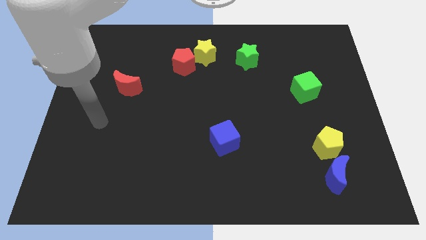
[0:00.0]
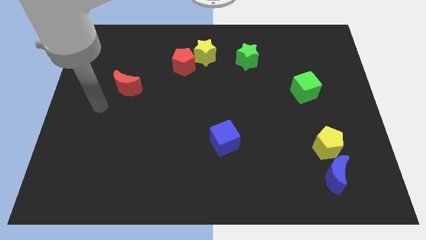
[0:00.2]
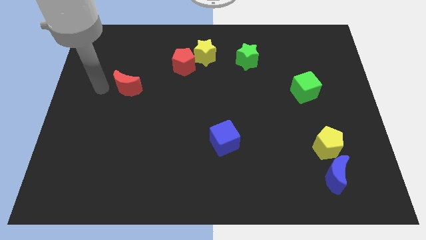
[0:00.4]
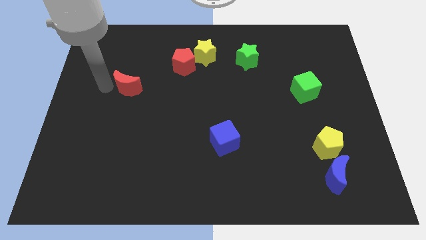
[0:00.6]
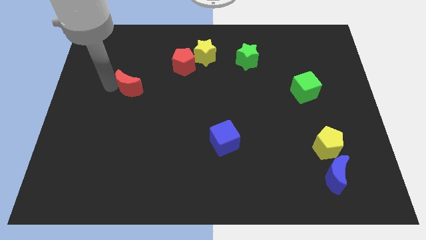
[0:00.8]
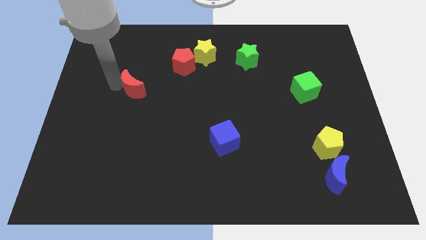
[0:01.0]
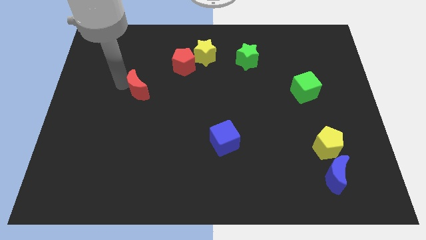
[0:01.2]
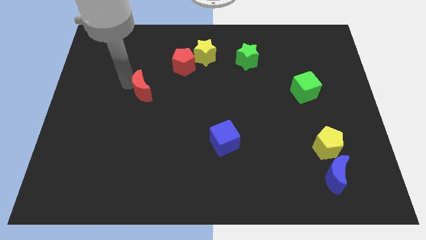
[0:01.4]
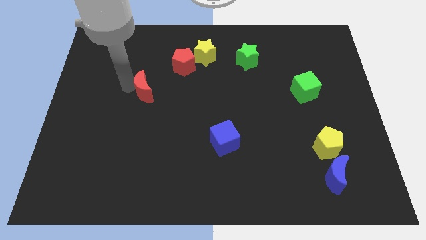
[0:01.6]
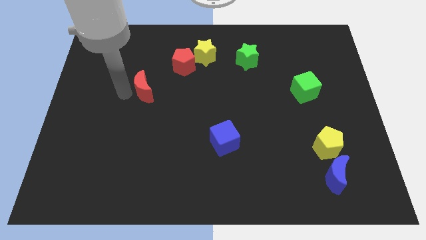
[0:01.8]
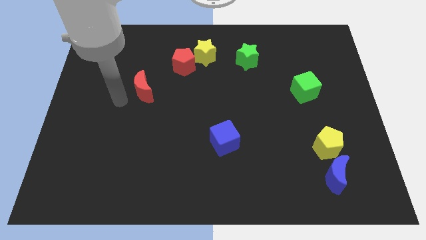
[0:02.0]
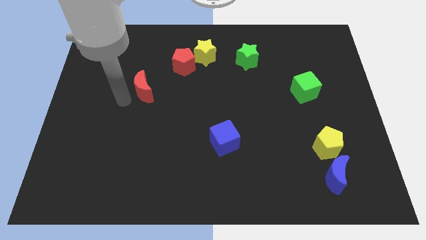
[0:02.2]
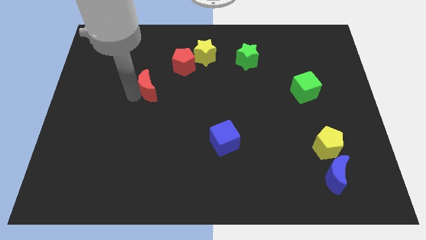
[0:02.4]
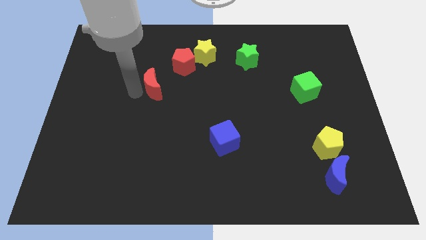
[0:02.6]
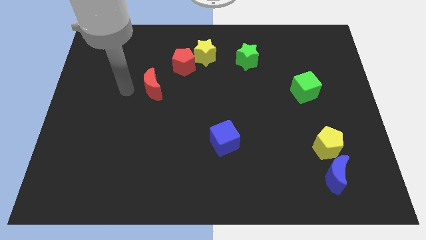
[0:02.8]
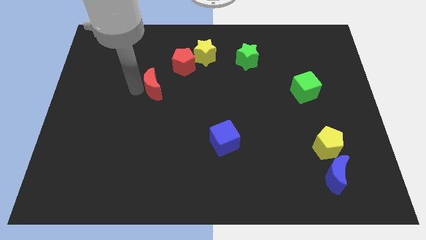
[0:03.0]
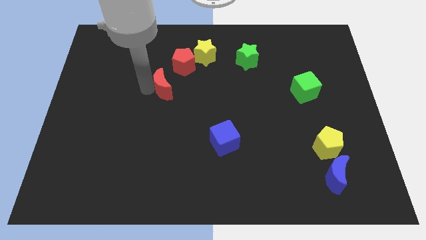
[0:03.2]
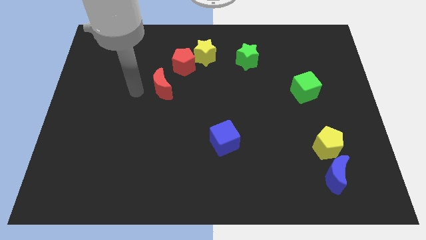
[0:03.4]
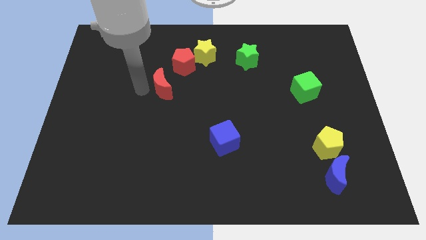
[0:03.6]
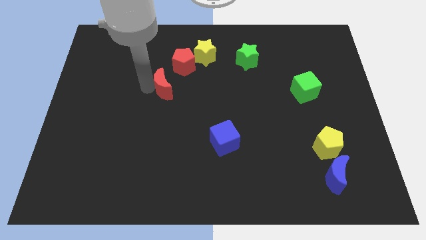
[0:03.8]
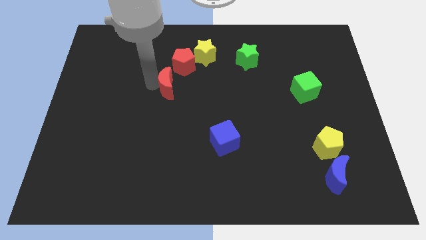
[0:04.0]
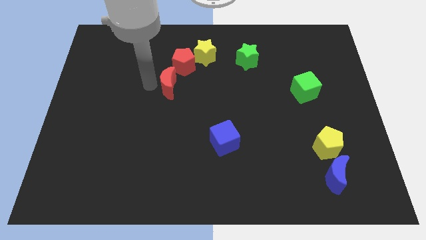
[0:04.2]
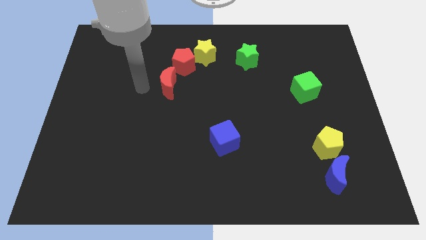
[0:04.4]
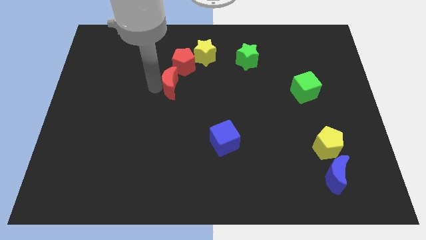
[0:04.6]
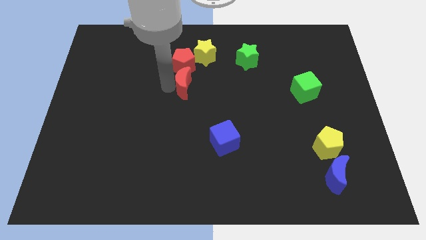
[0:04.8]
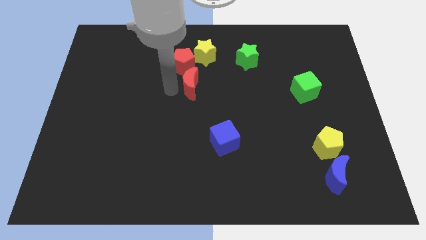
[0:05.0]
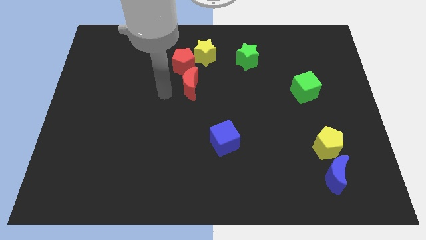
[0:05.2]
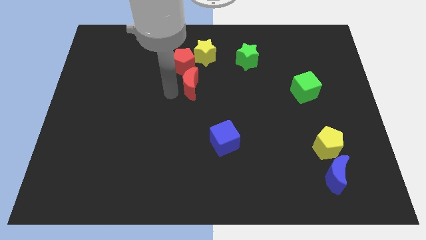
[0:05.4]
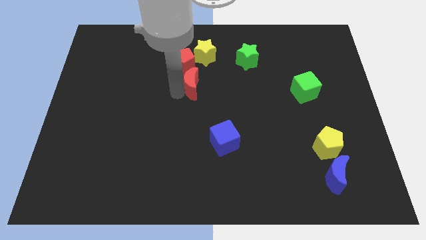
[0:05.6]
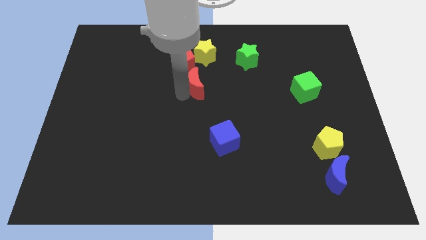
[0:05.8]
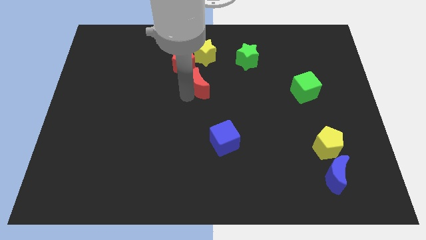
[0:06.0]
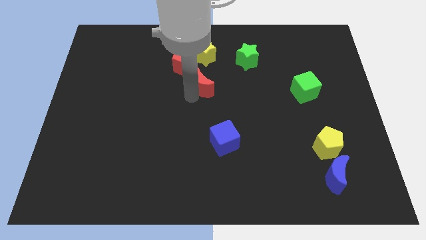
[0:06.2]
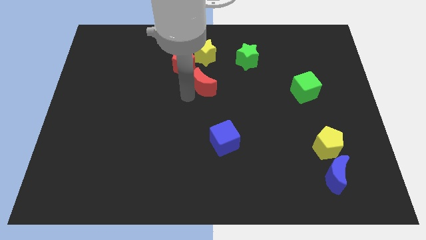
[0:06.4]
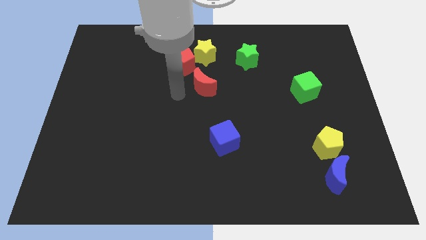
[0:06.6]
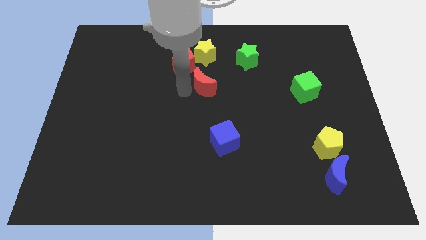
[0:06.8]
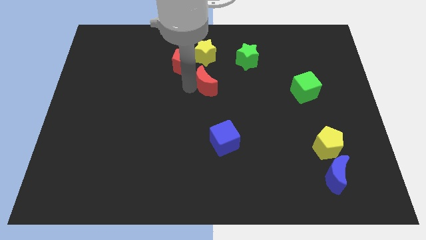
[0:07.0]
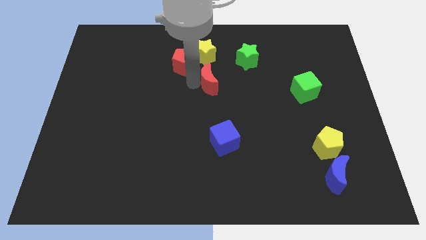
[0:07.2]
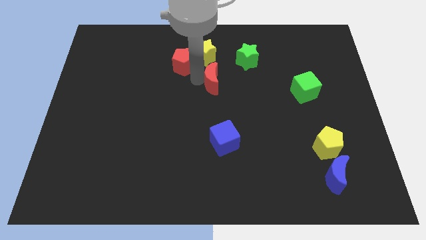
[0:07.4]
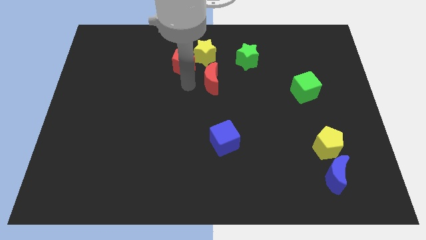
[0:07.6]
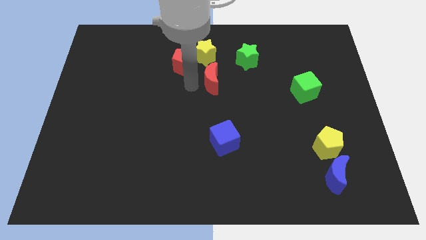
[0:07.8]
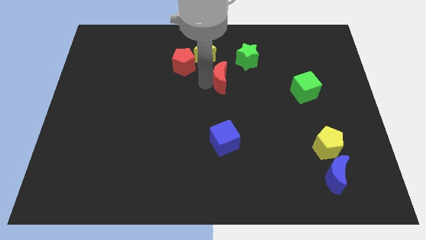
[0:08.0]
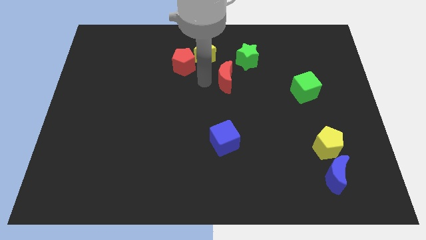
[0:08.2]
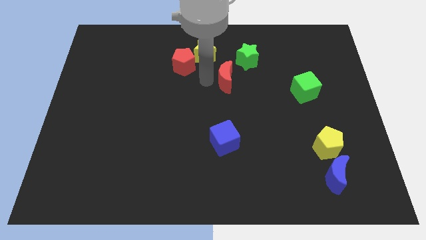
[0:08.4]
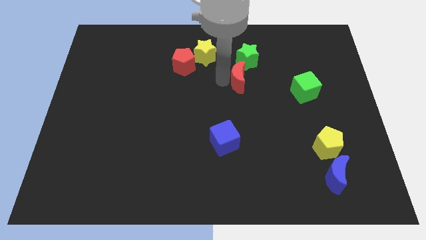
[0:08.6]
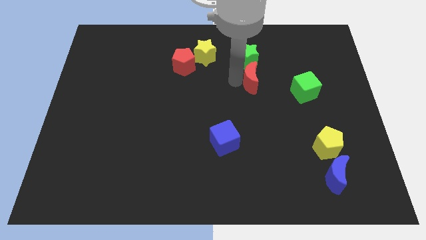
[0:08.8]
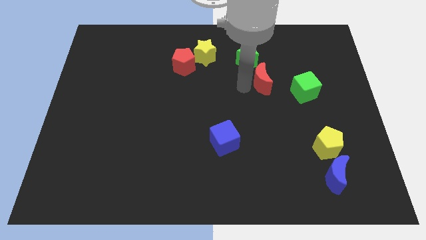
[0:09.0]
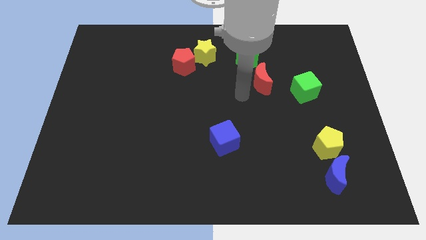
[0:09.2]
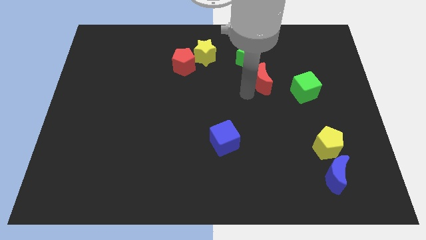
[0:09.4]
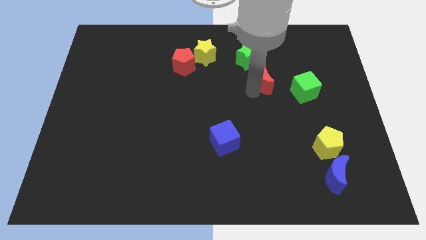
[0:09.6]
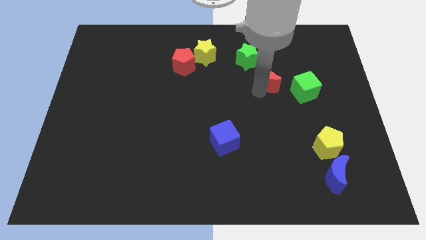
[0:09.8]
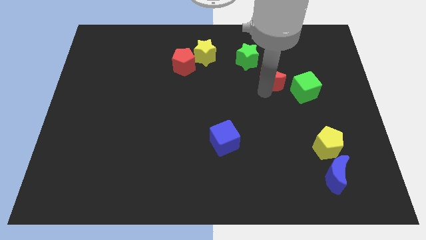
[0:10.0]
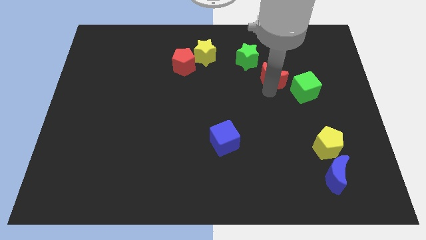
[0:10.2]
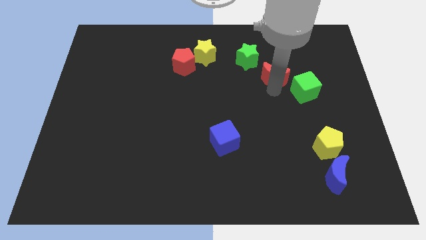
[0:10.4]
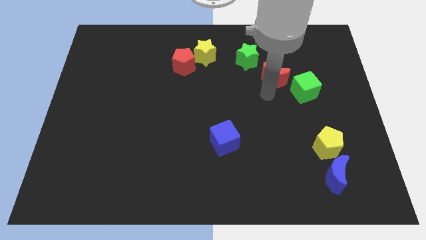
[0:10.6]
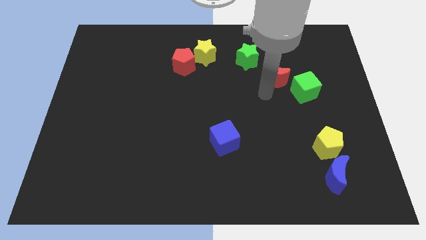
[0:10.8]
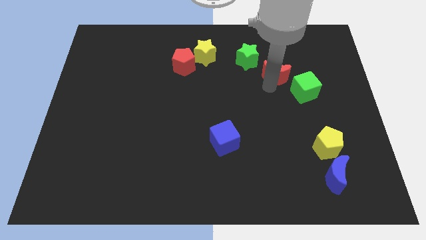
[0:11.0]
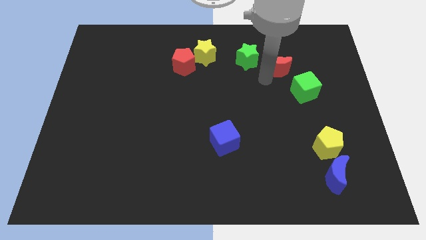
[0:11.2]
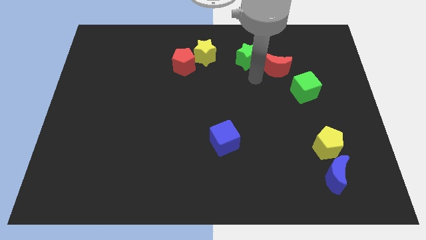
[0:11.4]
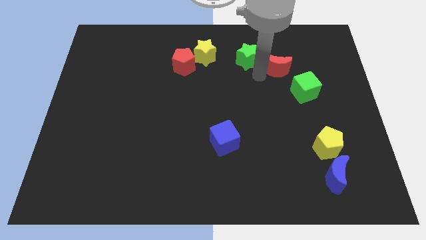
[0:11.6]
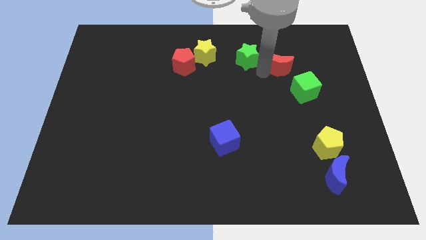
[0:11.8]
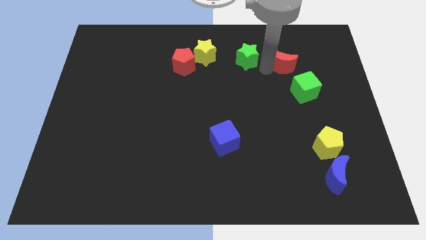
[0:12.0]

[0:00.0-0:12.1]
slide the red moon to the top side of the green cube

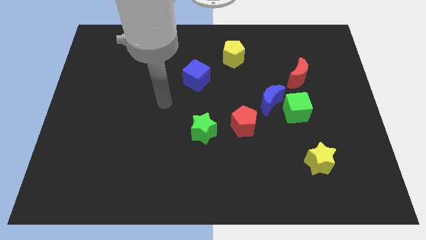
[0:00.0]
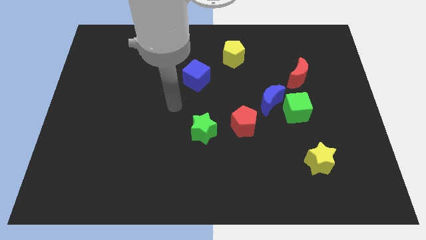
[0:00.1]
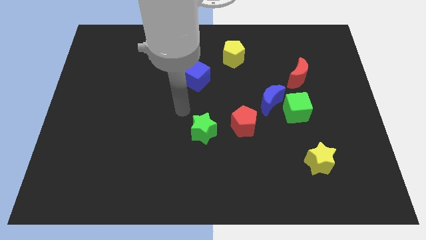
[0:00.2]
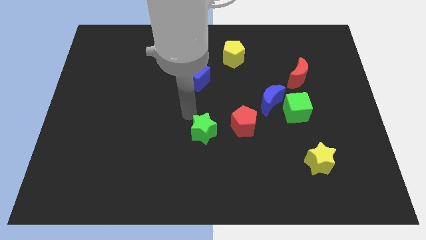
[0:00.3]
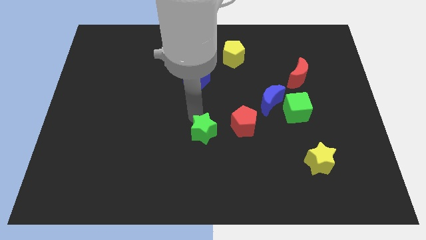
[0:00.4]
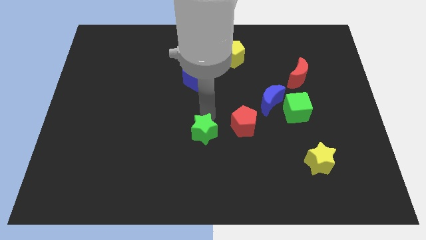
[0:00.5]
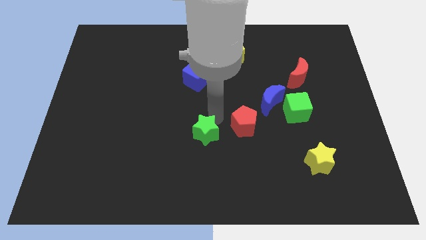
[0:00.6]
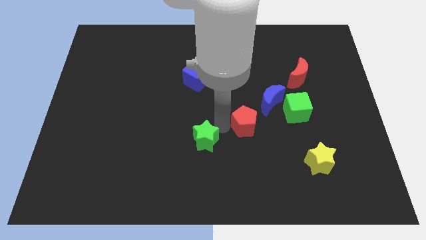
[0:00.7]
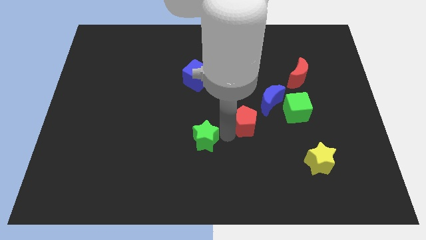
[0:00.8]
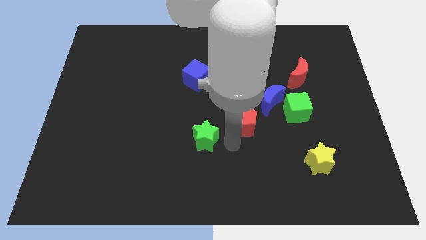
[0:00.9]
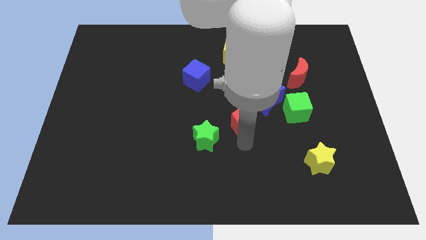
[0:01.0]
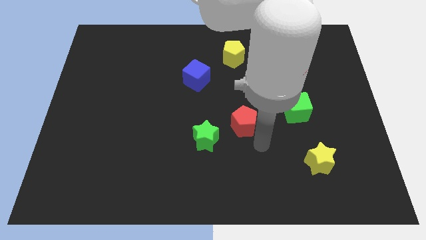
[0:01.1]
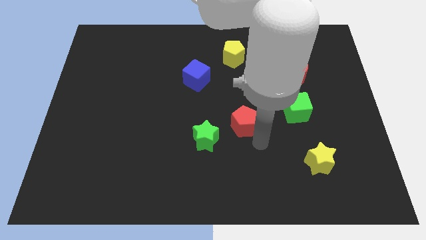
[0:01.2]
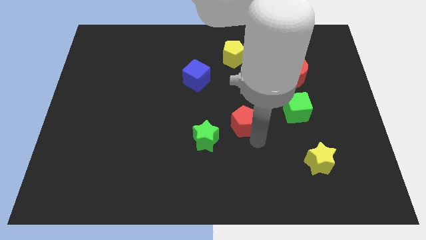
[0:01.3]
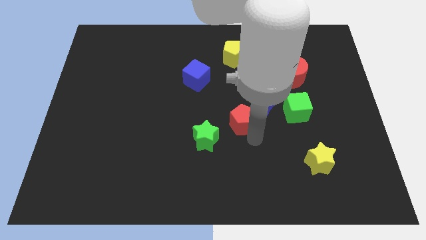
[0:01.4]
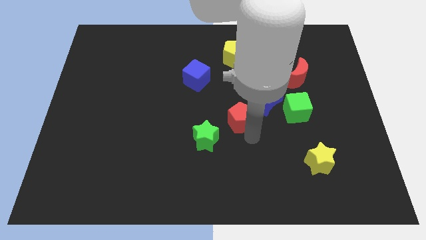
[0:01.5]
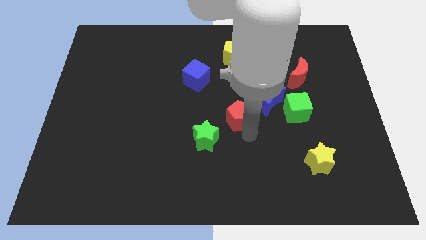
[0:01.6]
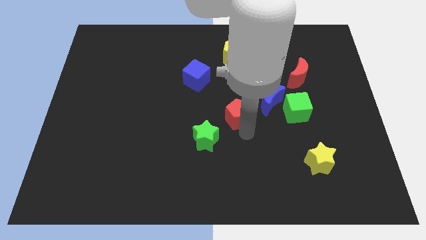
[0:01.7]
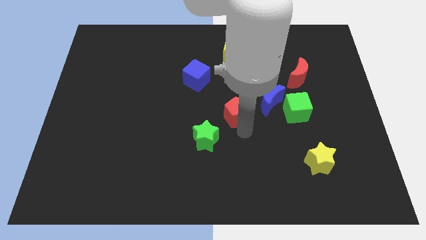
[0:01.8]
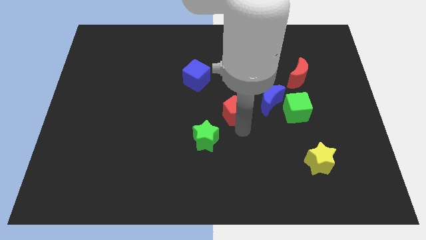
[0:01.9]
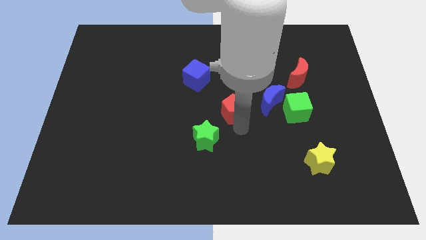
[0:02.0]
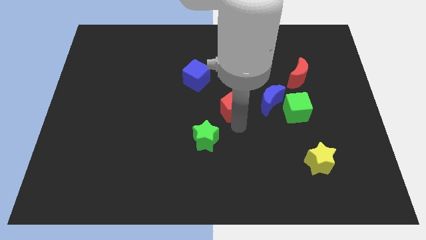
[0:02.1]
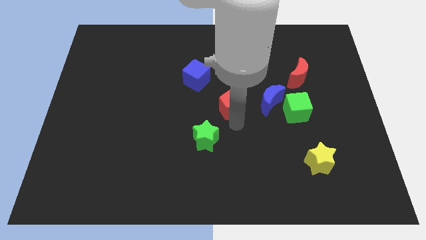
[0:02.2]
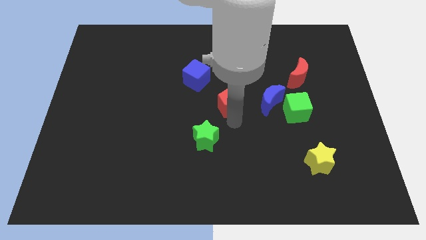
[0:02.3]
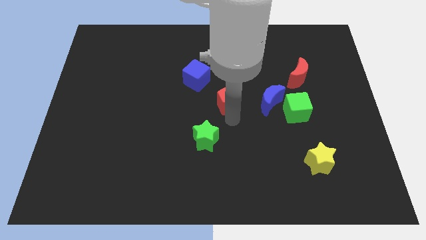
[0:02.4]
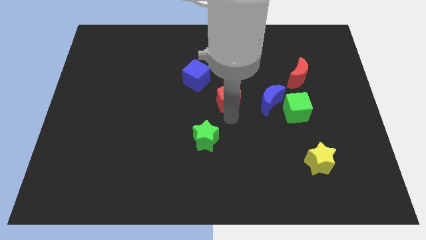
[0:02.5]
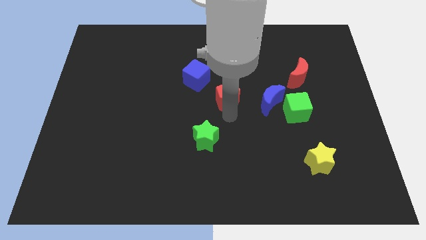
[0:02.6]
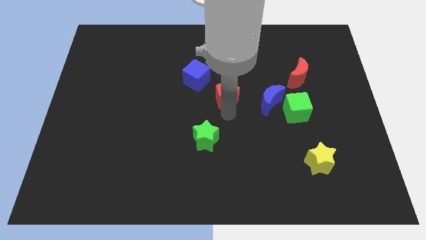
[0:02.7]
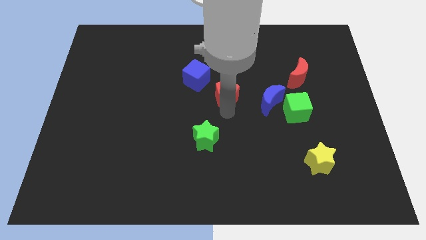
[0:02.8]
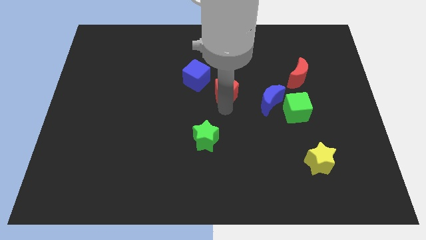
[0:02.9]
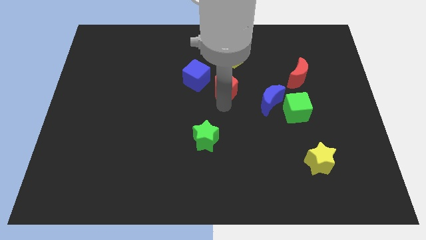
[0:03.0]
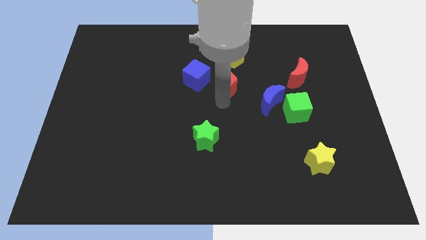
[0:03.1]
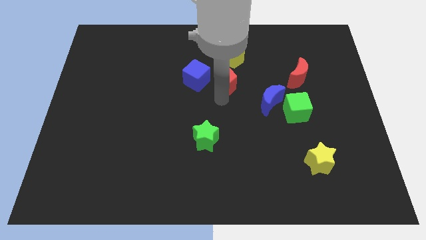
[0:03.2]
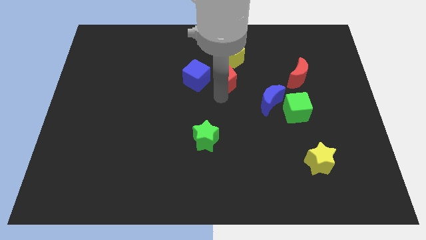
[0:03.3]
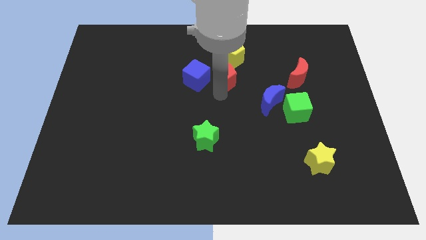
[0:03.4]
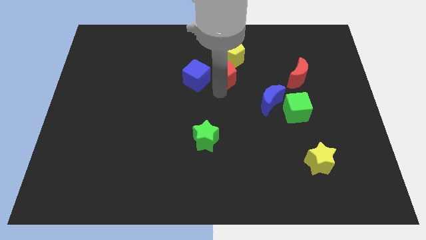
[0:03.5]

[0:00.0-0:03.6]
put the red pentagon to the top right side of the blue cube
